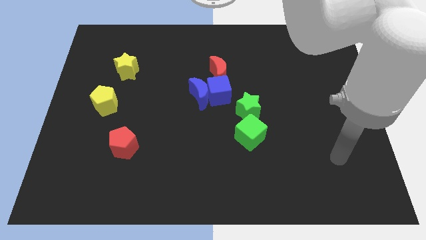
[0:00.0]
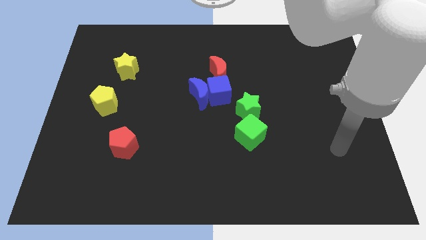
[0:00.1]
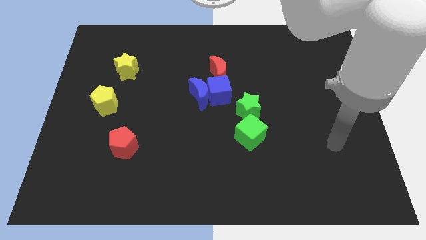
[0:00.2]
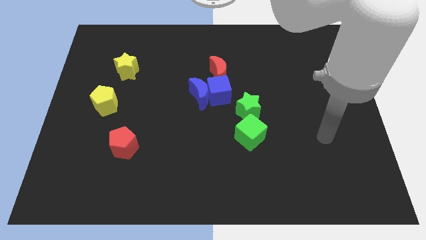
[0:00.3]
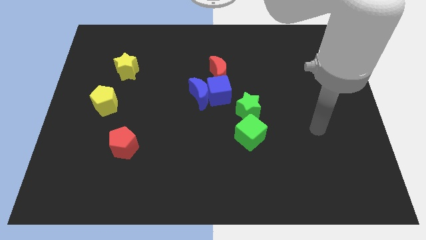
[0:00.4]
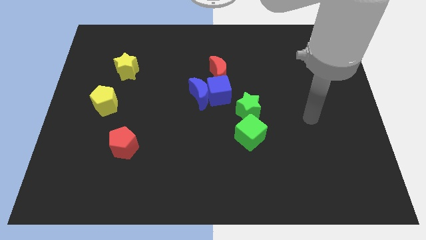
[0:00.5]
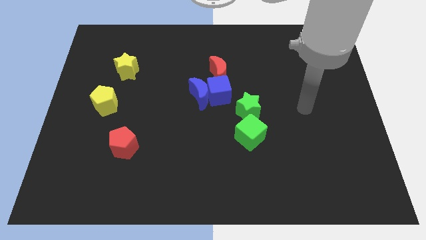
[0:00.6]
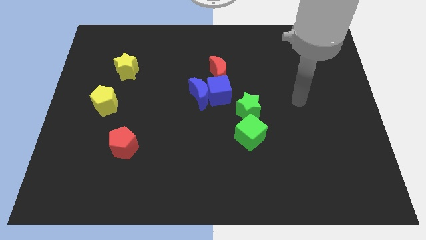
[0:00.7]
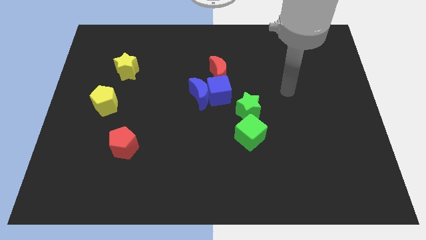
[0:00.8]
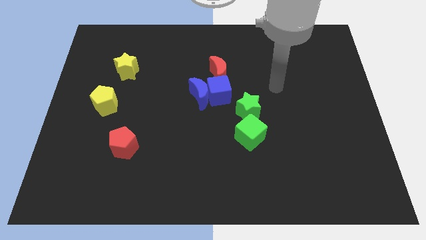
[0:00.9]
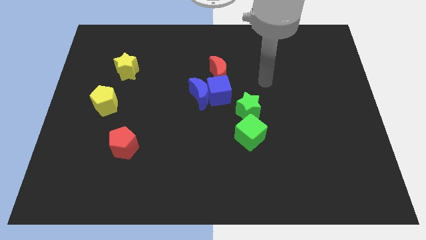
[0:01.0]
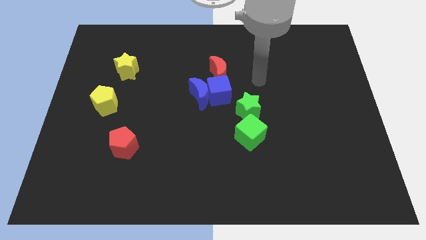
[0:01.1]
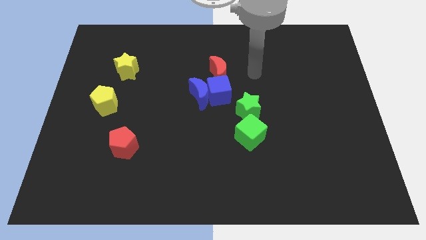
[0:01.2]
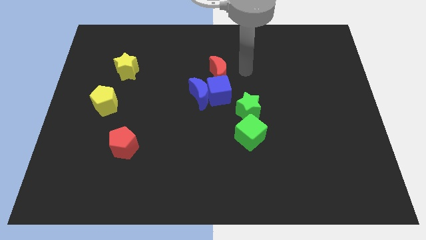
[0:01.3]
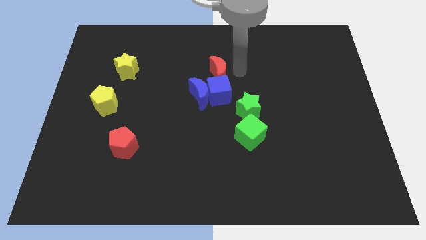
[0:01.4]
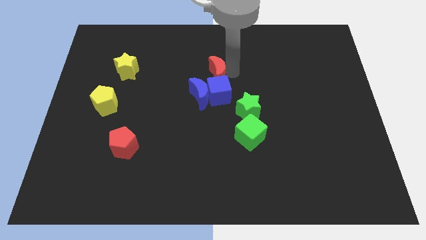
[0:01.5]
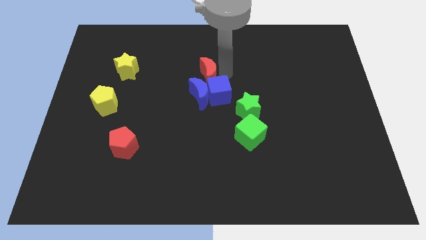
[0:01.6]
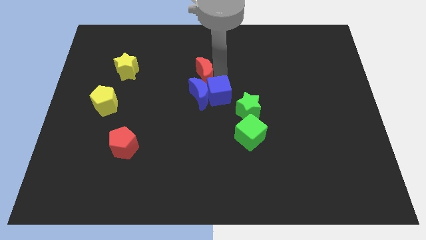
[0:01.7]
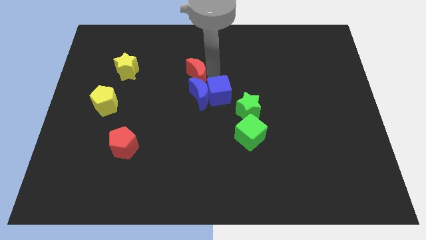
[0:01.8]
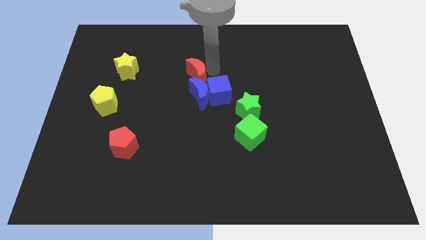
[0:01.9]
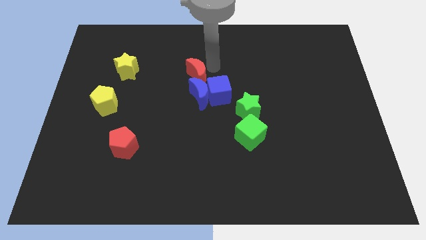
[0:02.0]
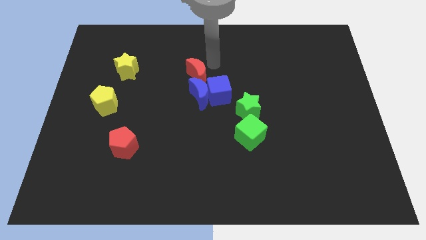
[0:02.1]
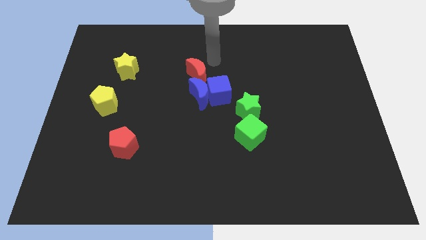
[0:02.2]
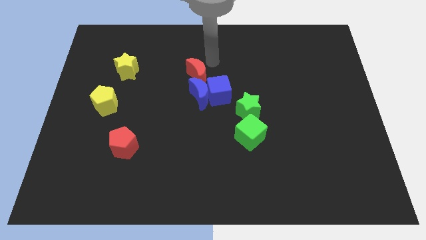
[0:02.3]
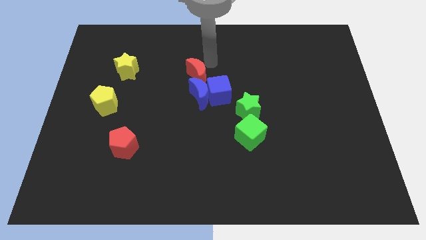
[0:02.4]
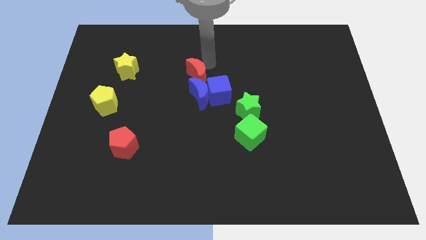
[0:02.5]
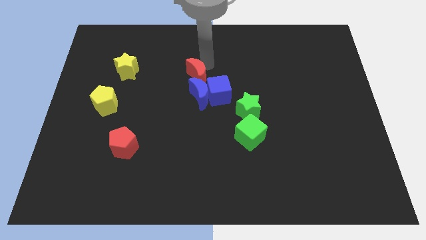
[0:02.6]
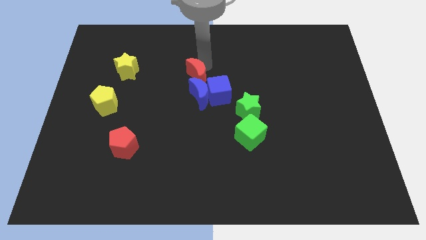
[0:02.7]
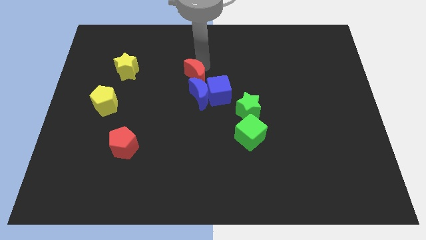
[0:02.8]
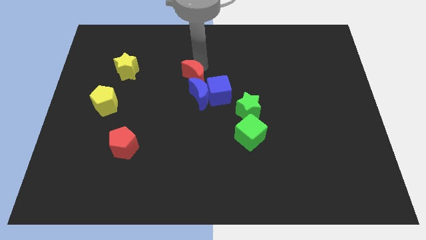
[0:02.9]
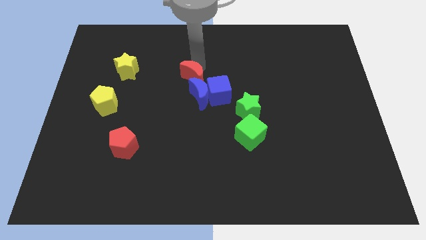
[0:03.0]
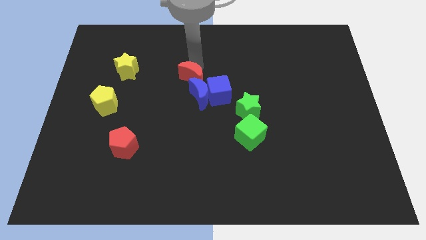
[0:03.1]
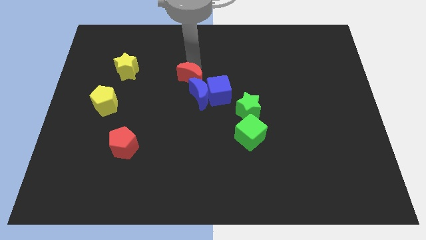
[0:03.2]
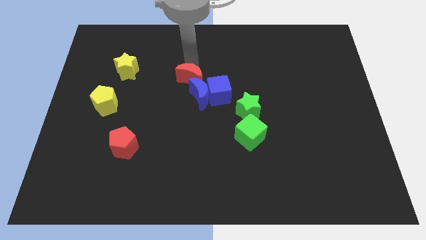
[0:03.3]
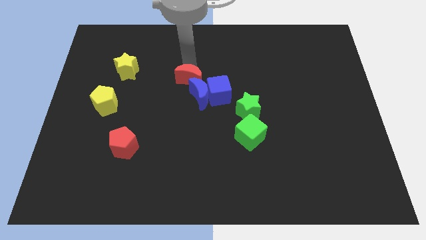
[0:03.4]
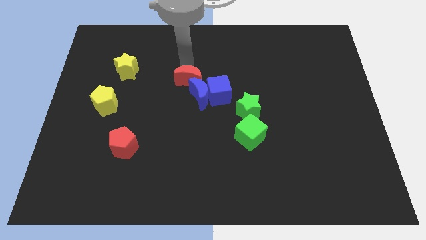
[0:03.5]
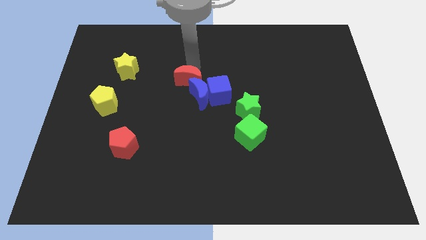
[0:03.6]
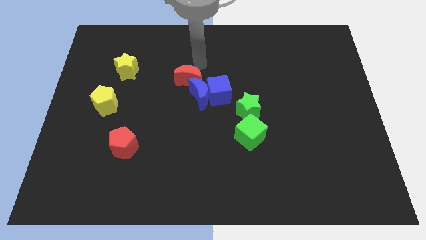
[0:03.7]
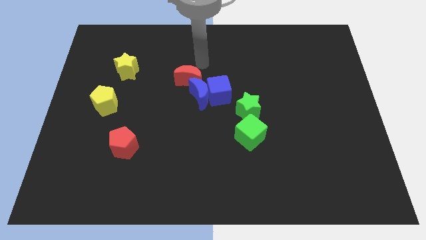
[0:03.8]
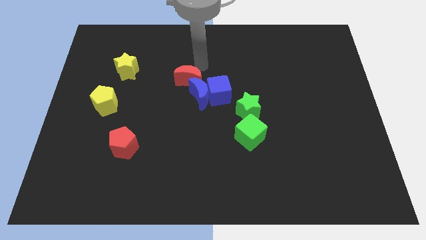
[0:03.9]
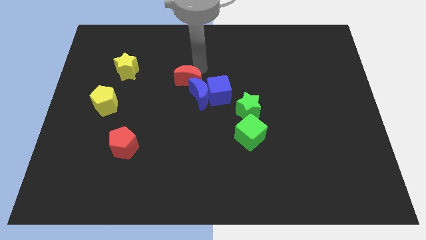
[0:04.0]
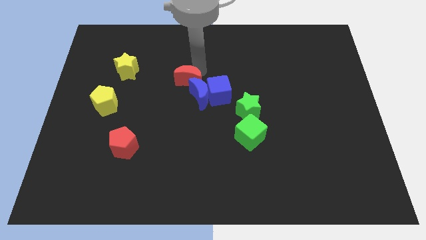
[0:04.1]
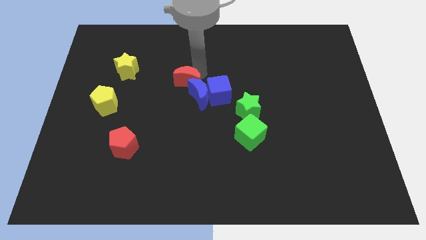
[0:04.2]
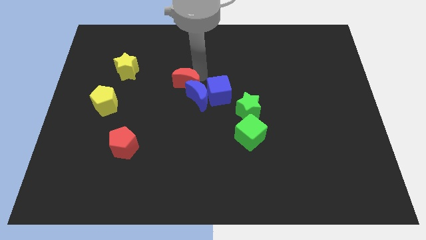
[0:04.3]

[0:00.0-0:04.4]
slightly move the red moon downwards and left diagonally

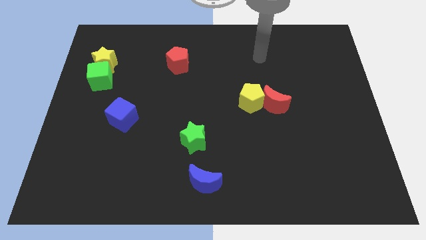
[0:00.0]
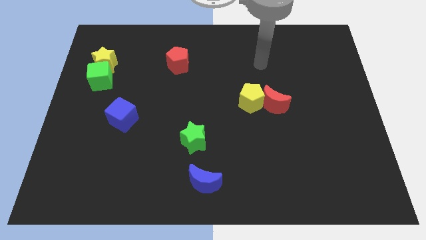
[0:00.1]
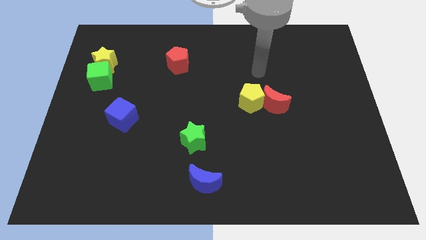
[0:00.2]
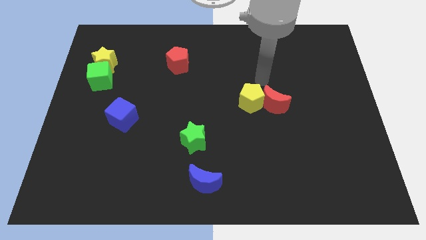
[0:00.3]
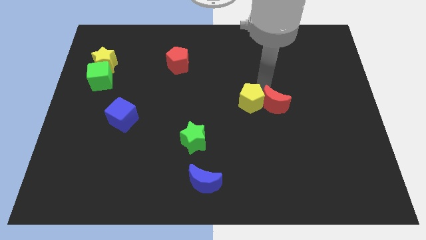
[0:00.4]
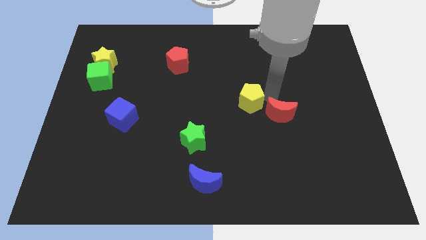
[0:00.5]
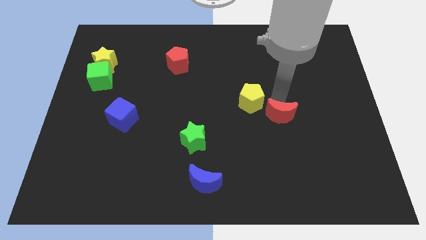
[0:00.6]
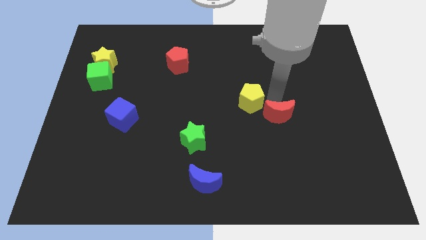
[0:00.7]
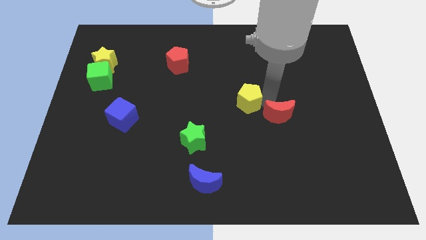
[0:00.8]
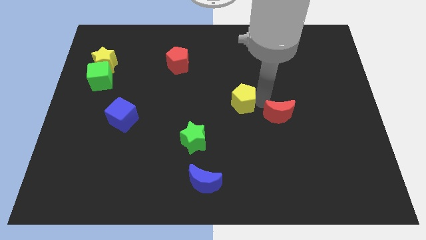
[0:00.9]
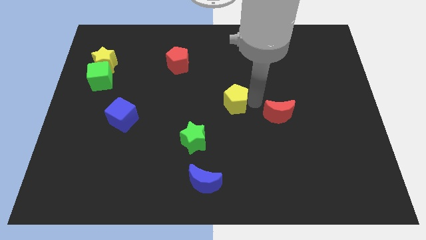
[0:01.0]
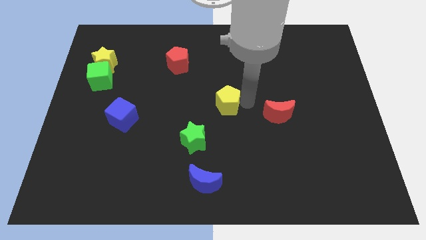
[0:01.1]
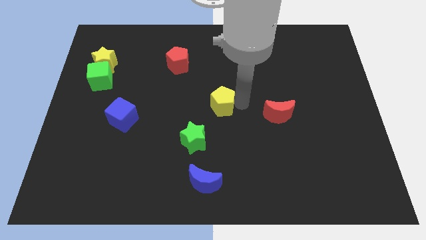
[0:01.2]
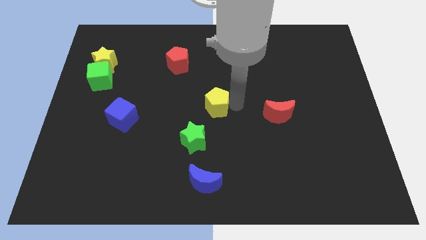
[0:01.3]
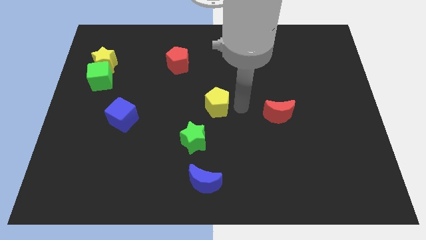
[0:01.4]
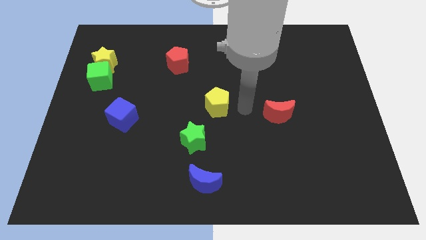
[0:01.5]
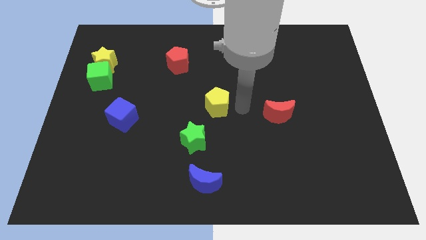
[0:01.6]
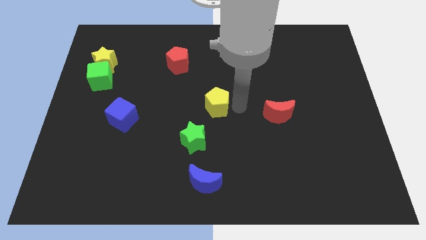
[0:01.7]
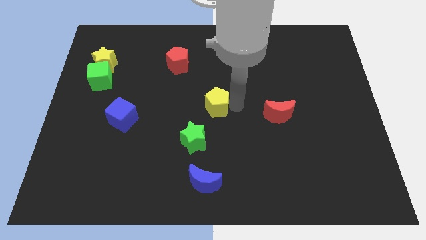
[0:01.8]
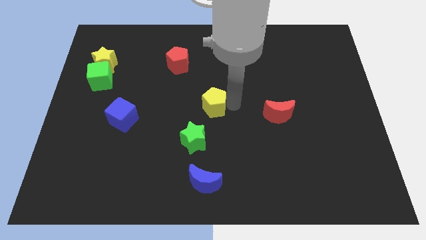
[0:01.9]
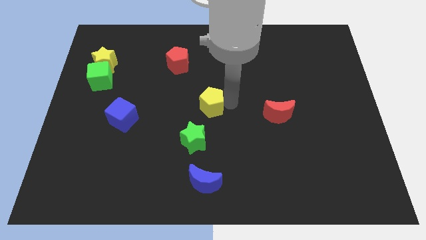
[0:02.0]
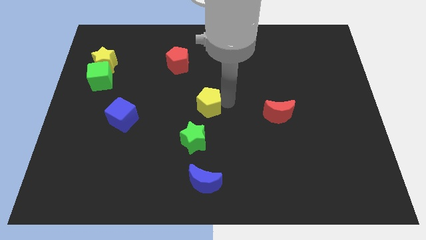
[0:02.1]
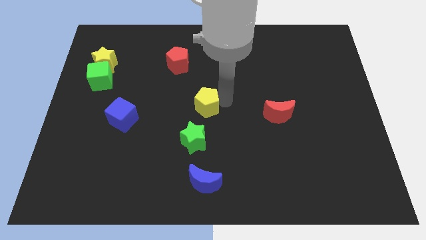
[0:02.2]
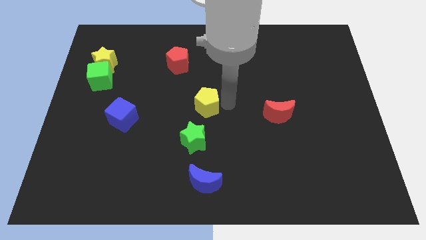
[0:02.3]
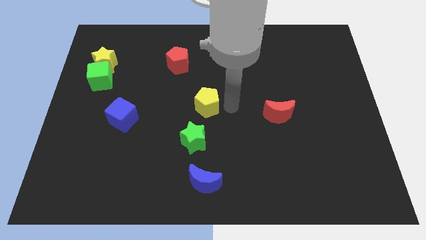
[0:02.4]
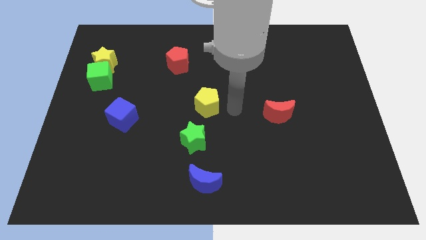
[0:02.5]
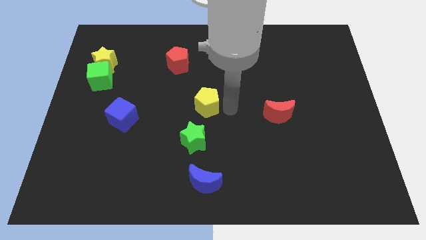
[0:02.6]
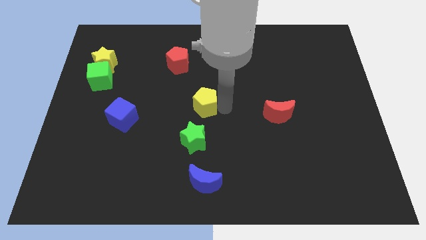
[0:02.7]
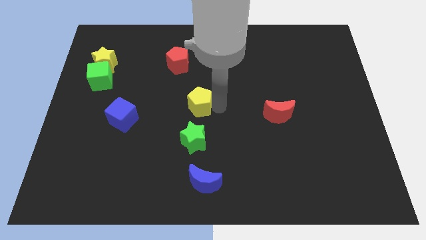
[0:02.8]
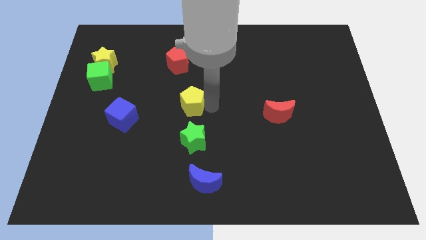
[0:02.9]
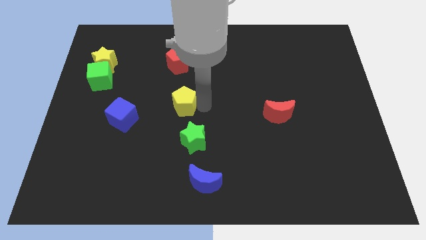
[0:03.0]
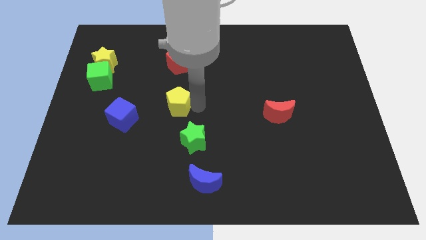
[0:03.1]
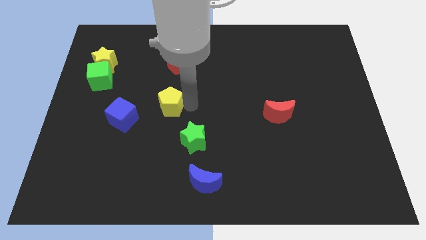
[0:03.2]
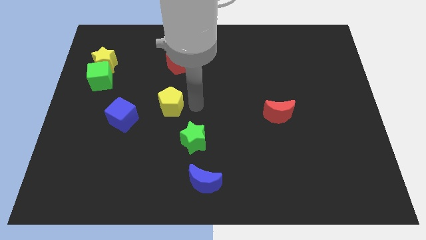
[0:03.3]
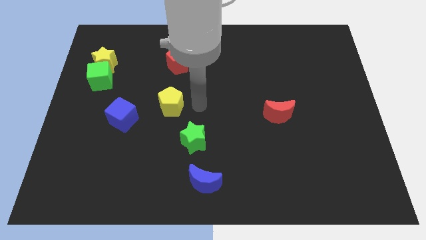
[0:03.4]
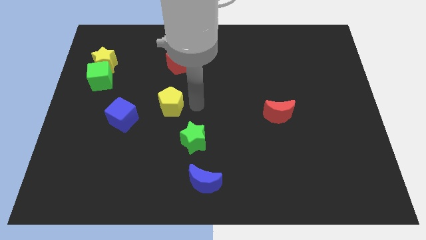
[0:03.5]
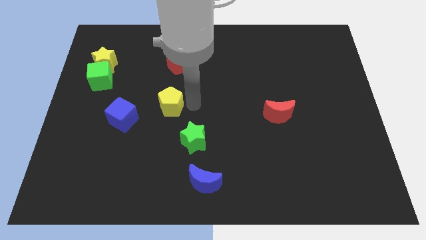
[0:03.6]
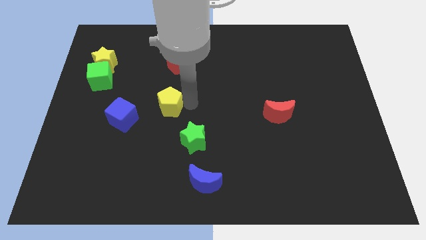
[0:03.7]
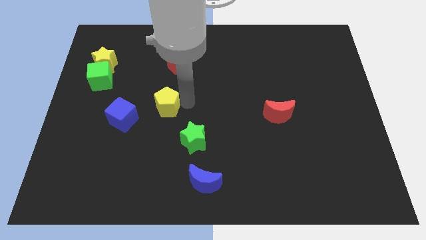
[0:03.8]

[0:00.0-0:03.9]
slide the yellow pentagon left
